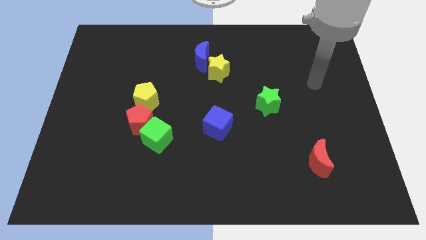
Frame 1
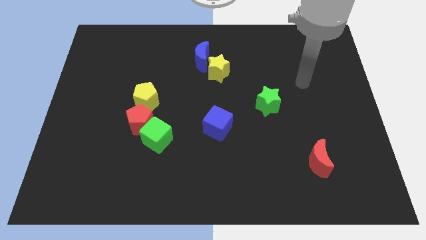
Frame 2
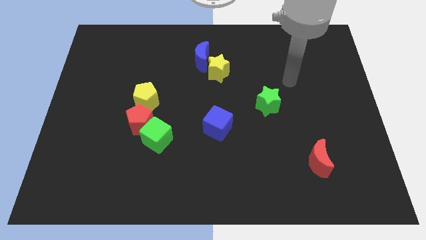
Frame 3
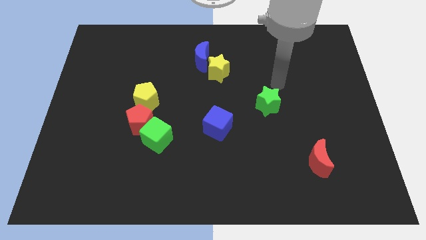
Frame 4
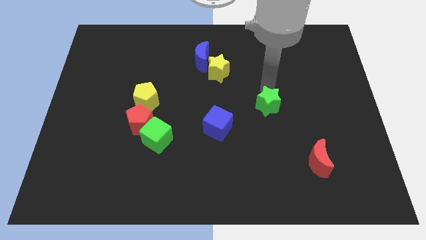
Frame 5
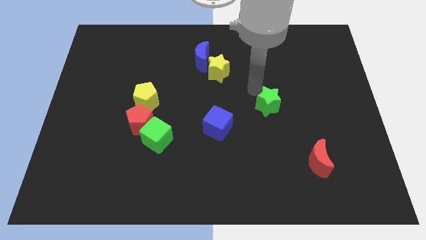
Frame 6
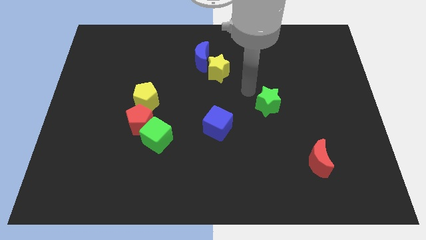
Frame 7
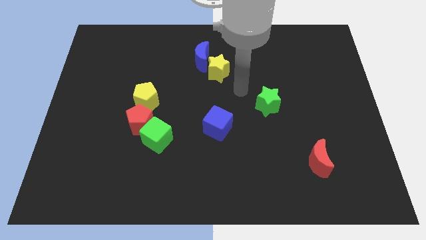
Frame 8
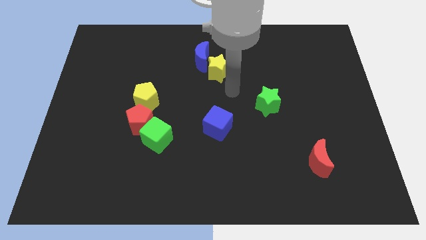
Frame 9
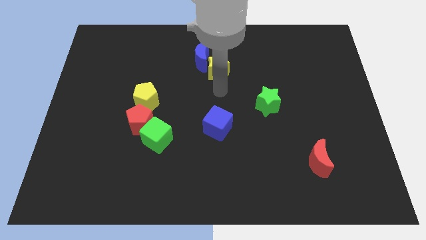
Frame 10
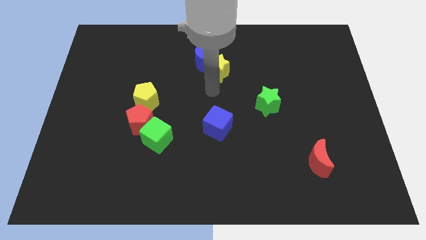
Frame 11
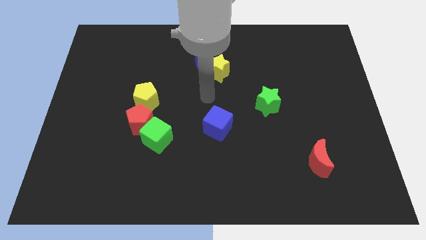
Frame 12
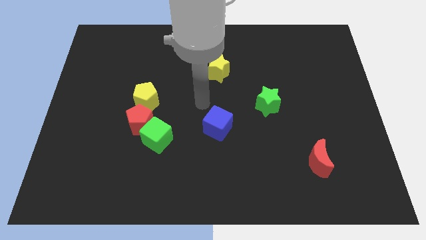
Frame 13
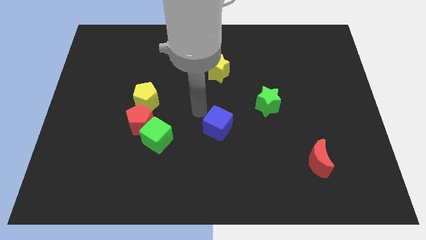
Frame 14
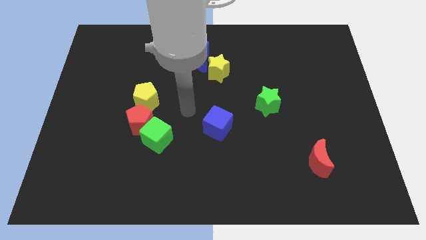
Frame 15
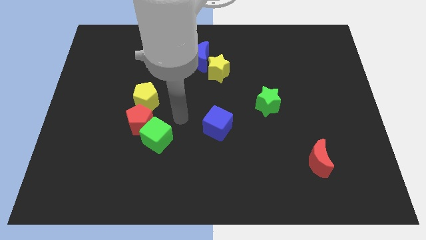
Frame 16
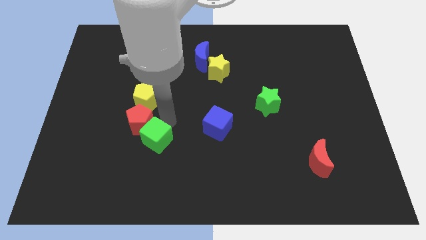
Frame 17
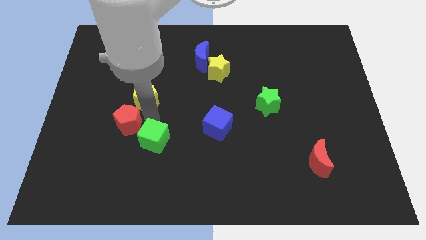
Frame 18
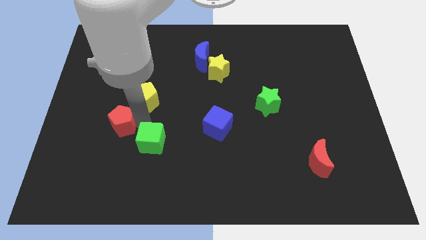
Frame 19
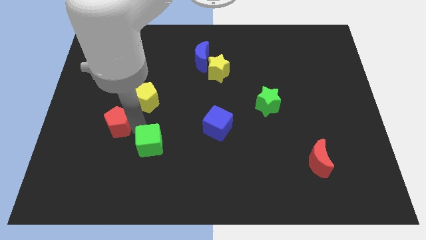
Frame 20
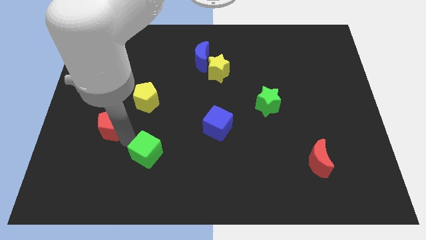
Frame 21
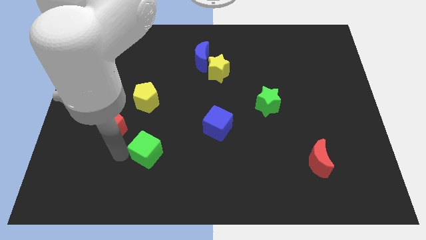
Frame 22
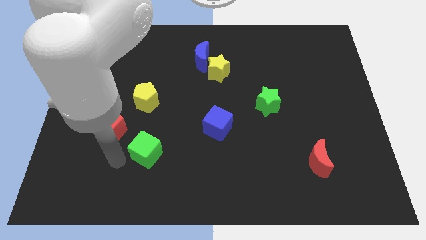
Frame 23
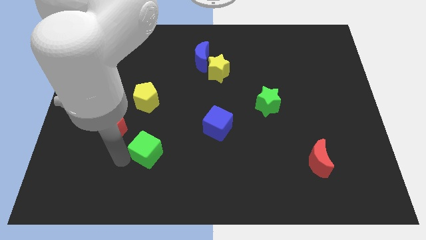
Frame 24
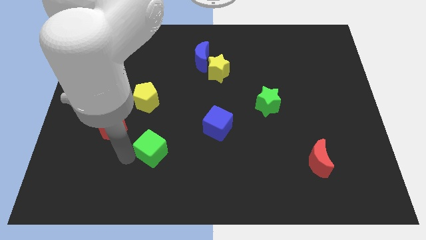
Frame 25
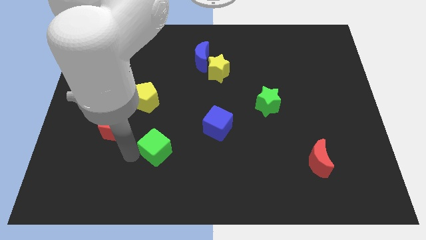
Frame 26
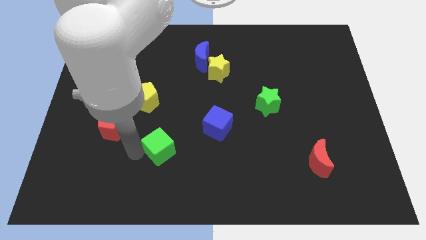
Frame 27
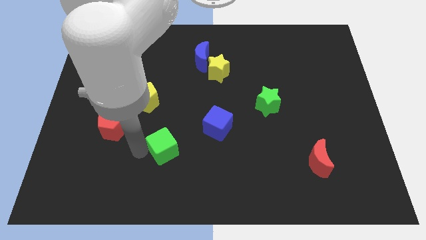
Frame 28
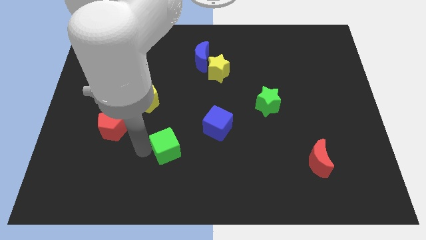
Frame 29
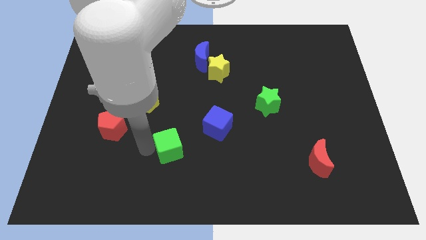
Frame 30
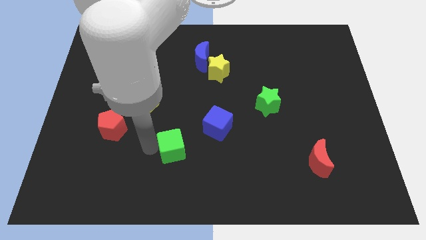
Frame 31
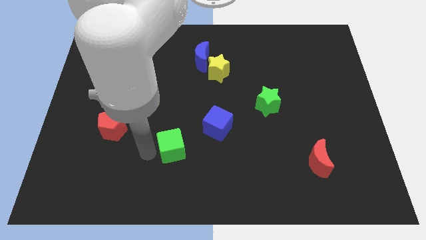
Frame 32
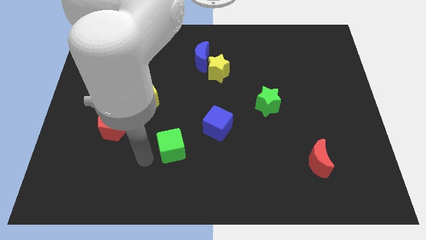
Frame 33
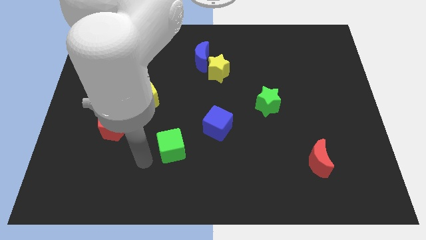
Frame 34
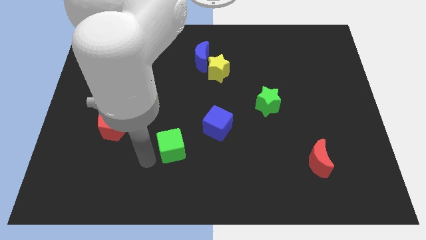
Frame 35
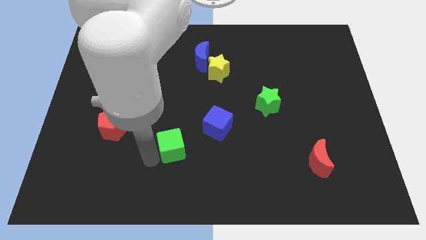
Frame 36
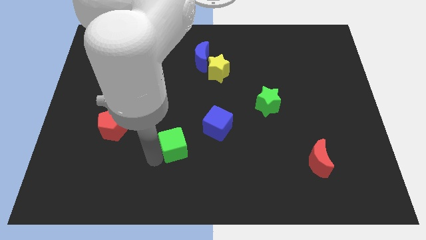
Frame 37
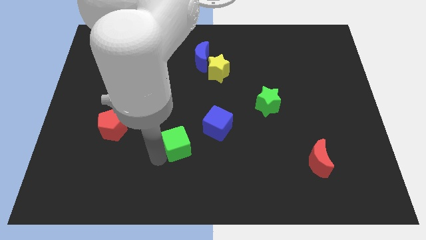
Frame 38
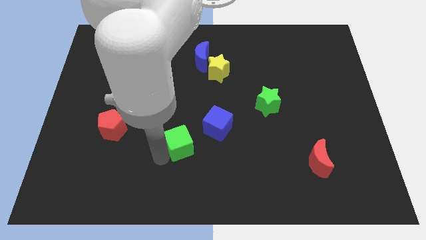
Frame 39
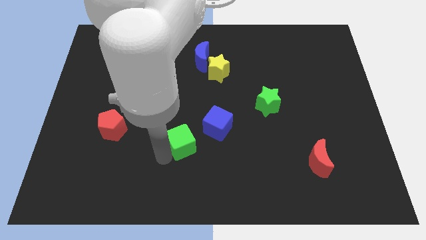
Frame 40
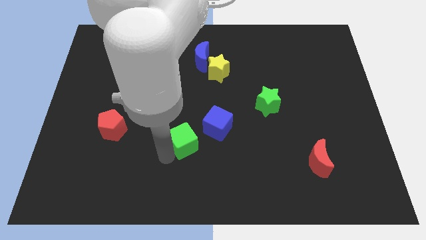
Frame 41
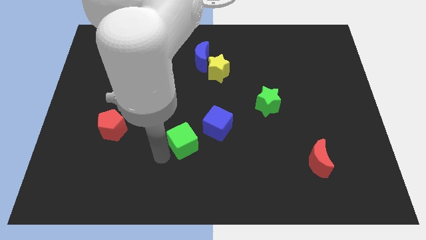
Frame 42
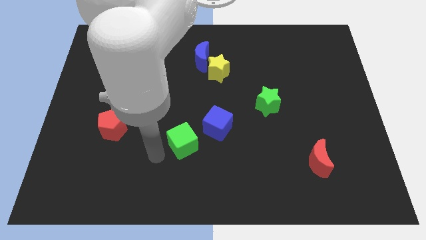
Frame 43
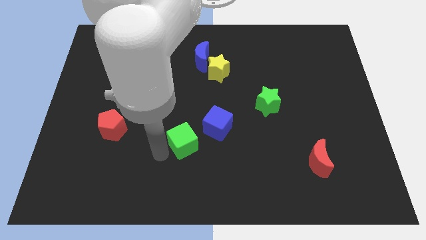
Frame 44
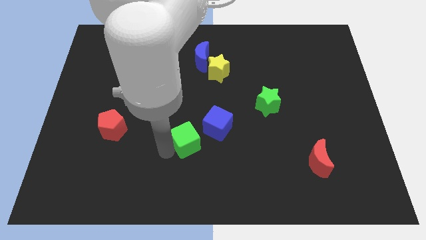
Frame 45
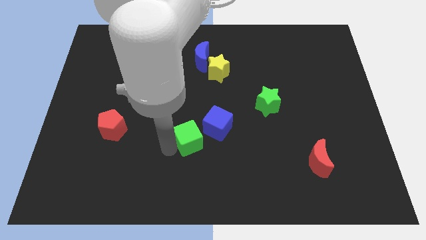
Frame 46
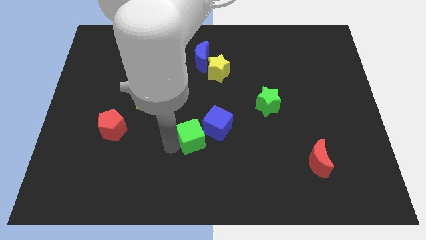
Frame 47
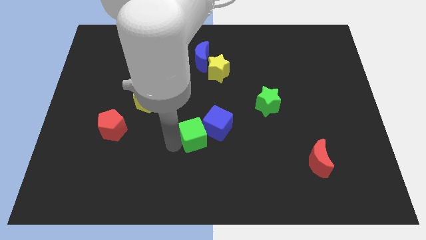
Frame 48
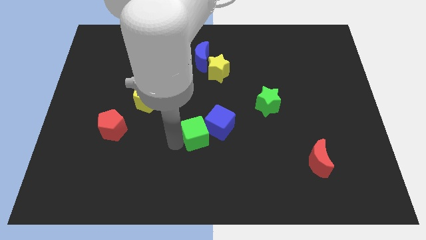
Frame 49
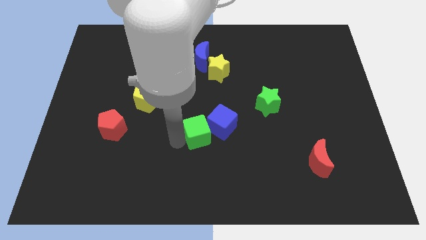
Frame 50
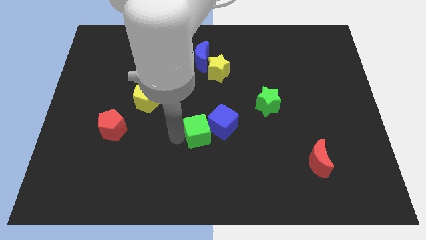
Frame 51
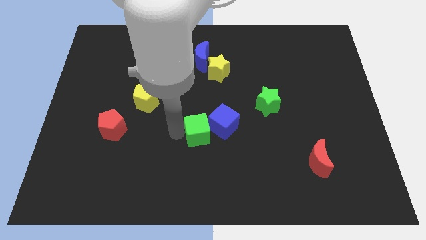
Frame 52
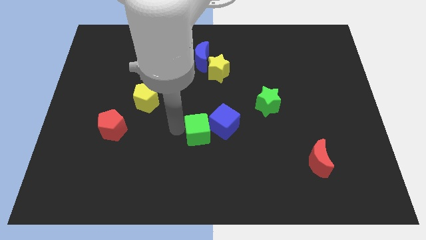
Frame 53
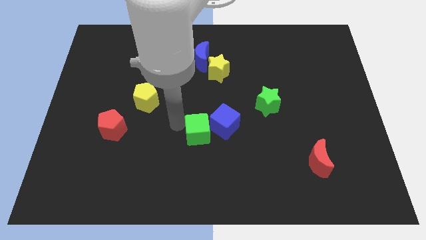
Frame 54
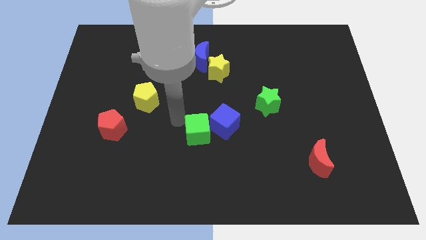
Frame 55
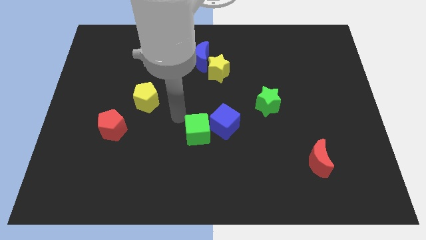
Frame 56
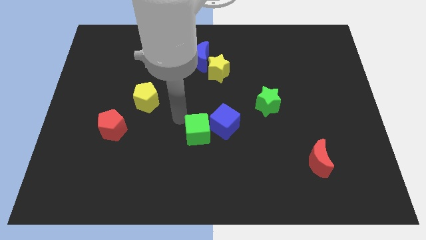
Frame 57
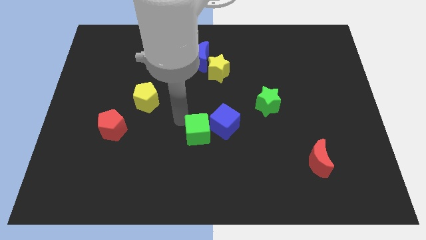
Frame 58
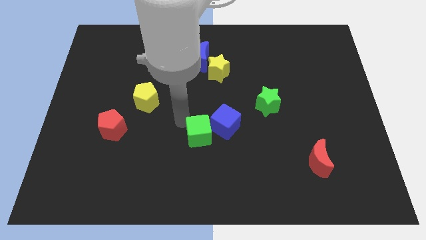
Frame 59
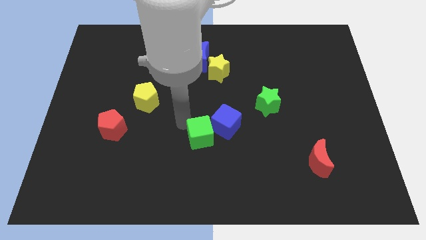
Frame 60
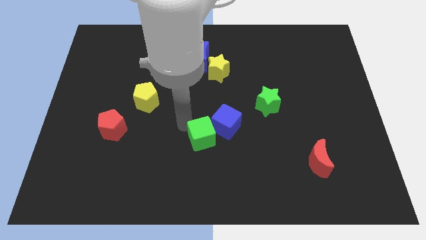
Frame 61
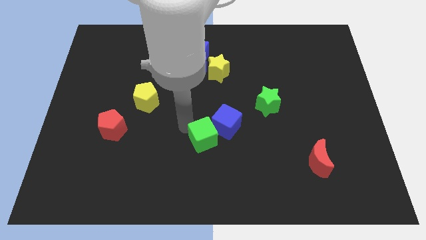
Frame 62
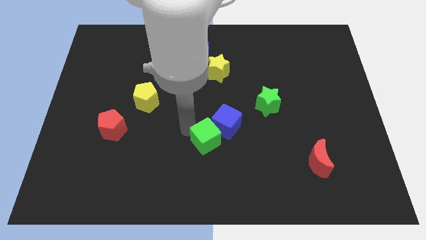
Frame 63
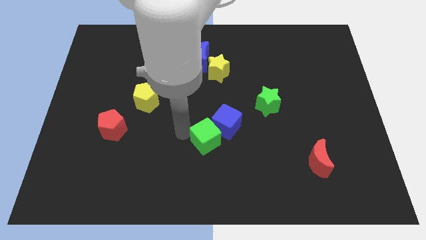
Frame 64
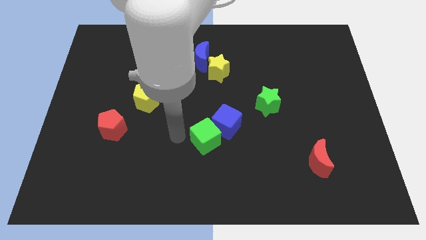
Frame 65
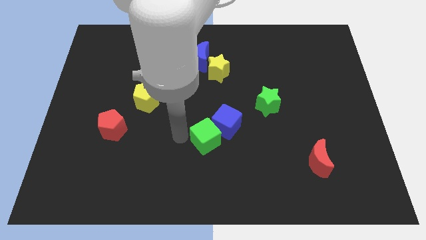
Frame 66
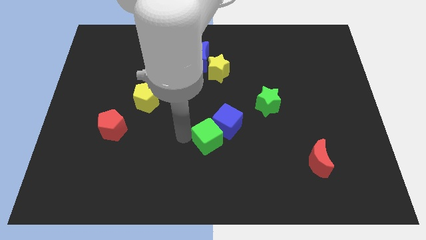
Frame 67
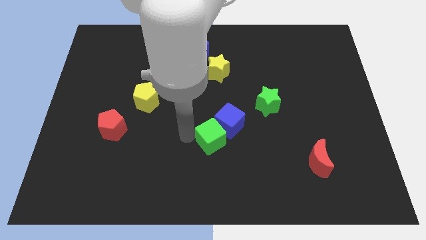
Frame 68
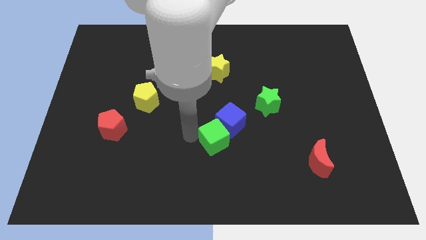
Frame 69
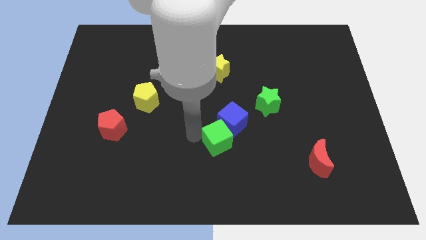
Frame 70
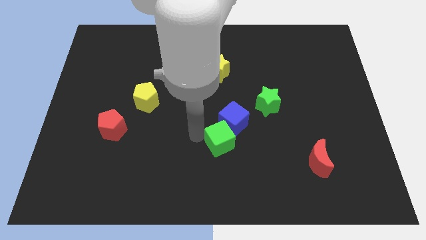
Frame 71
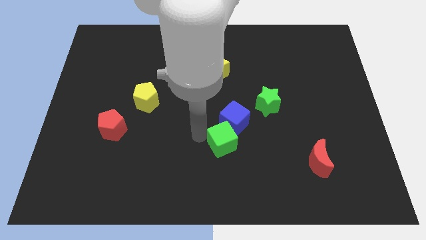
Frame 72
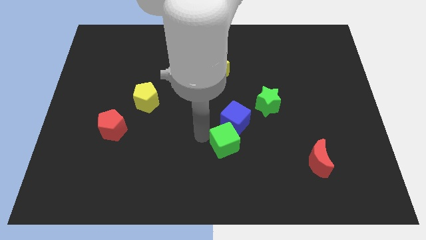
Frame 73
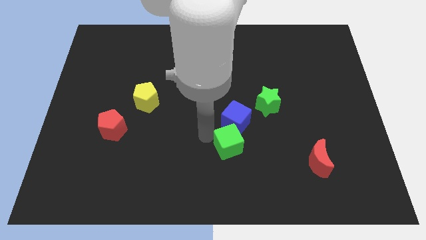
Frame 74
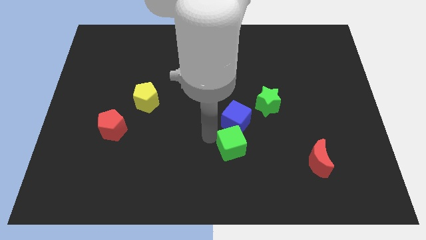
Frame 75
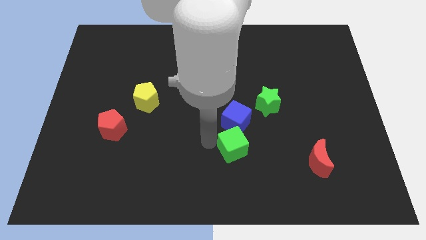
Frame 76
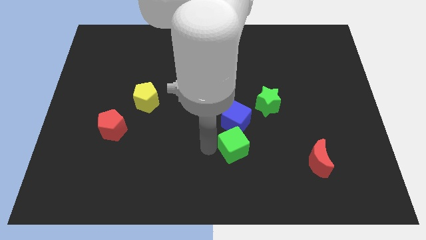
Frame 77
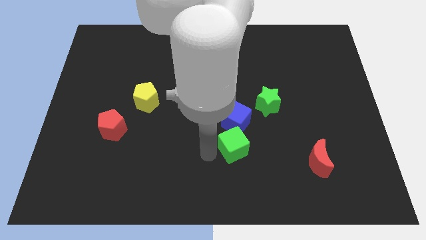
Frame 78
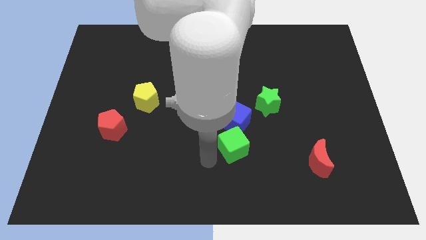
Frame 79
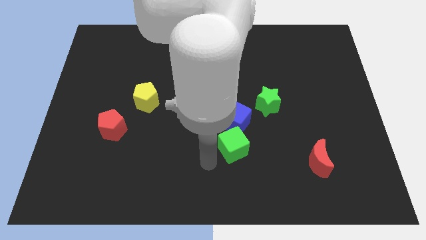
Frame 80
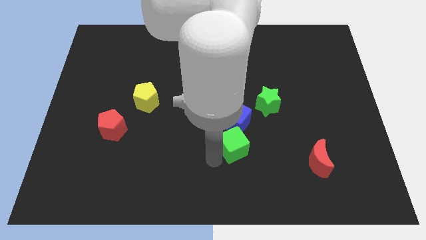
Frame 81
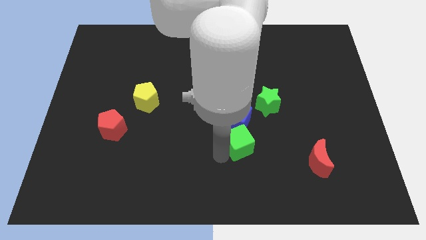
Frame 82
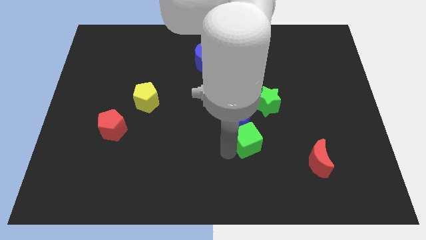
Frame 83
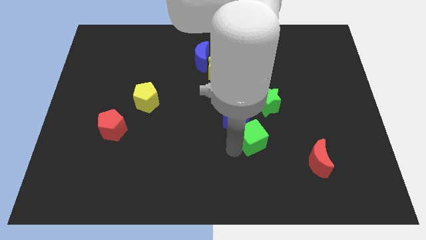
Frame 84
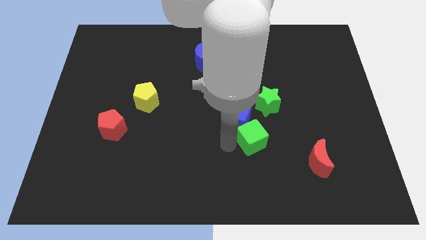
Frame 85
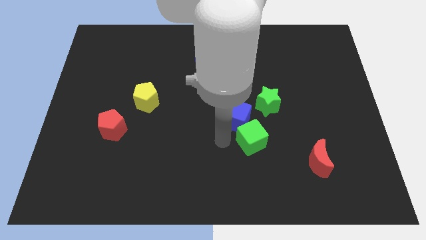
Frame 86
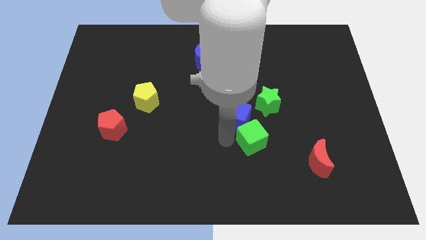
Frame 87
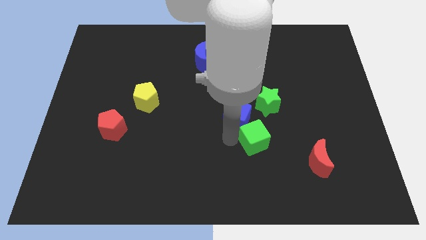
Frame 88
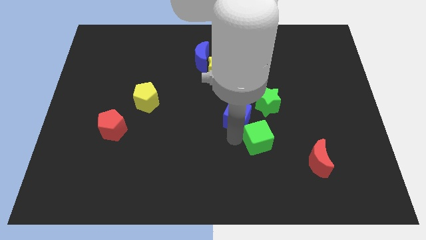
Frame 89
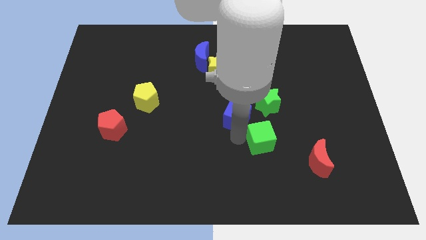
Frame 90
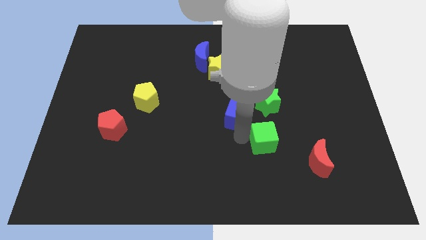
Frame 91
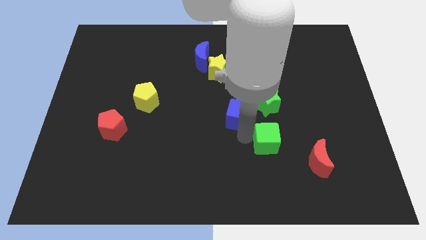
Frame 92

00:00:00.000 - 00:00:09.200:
move the green cube diagonally up and to the left of the red moon
